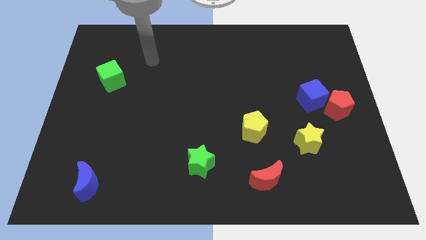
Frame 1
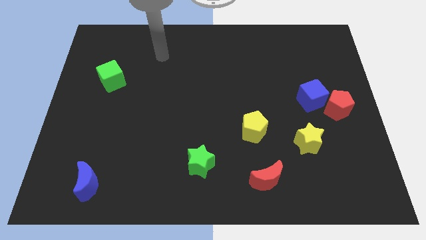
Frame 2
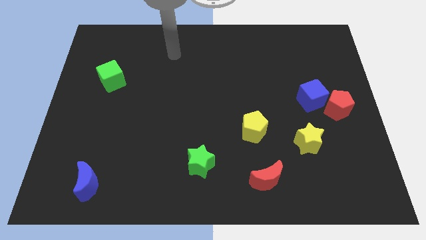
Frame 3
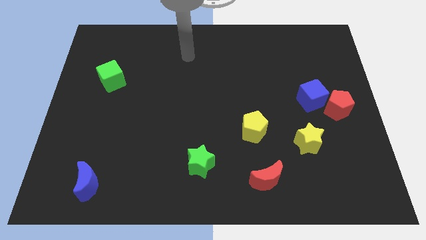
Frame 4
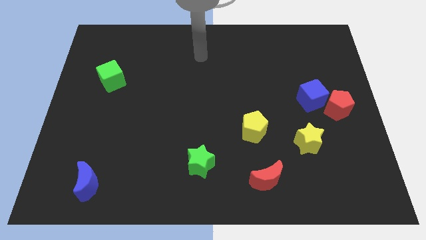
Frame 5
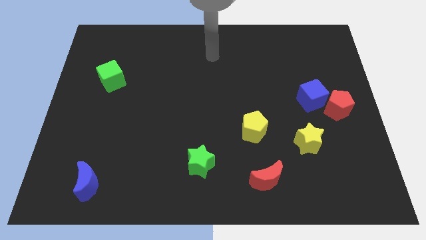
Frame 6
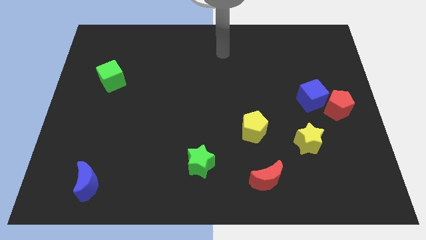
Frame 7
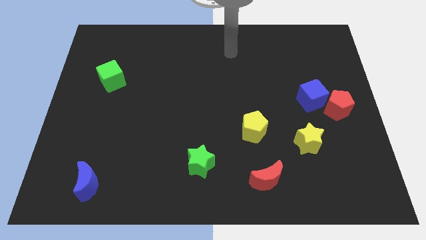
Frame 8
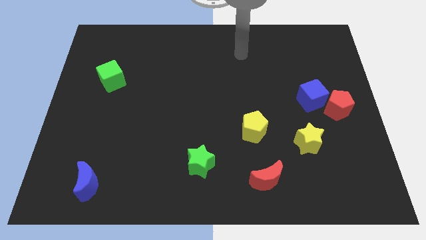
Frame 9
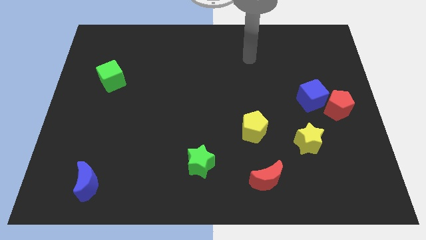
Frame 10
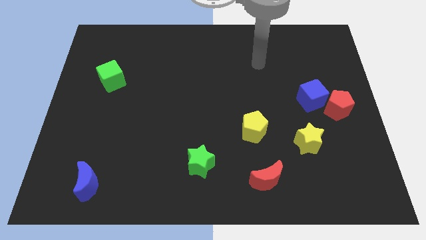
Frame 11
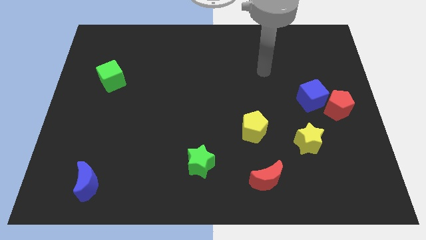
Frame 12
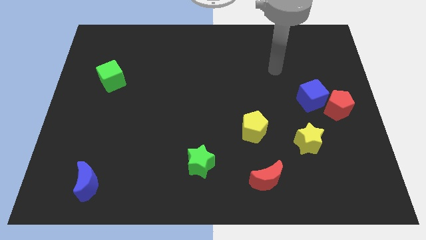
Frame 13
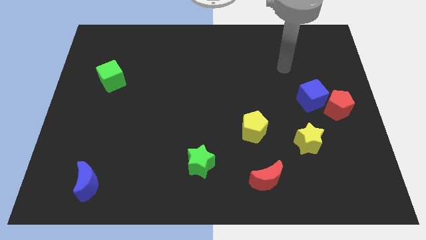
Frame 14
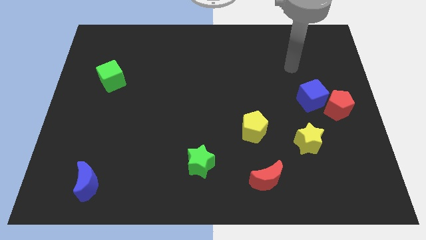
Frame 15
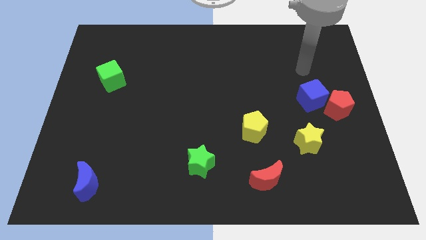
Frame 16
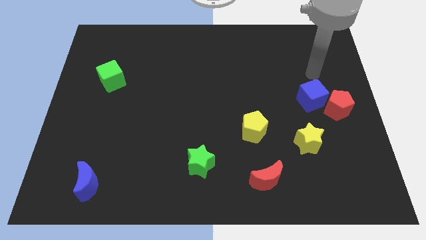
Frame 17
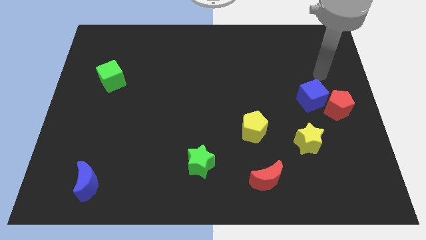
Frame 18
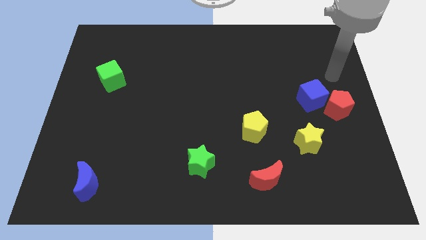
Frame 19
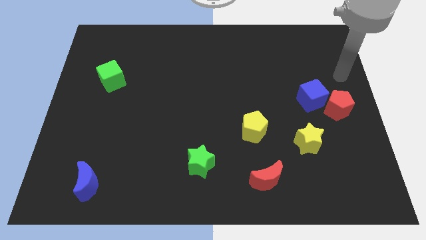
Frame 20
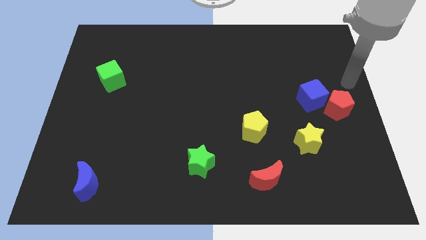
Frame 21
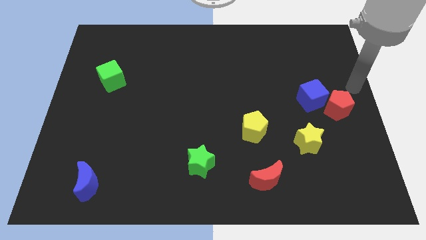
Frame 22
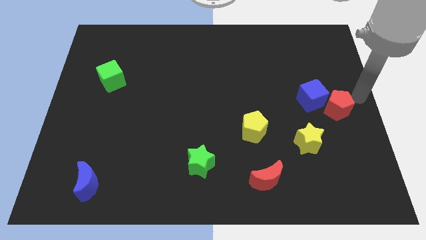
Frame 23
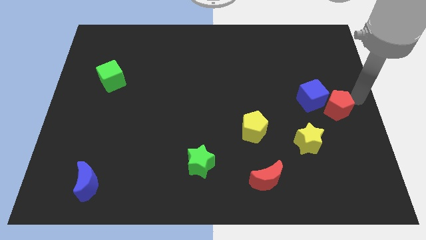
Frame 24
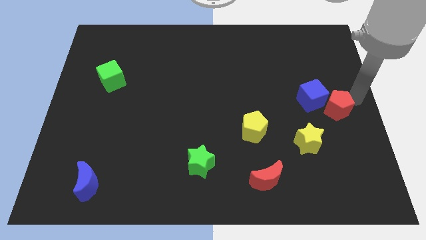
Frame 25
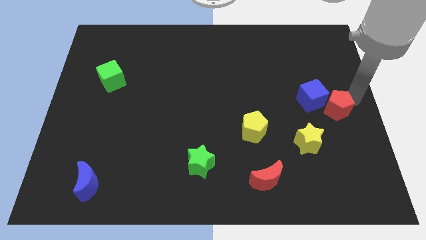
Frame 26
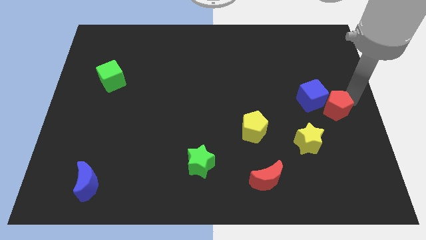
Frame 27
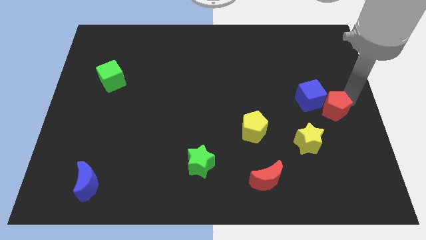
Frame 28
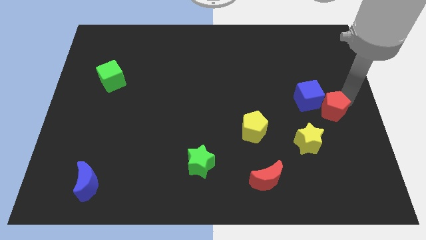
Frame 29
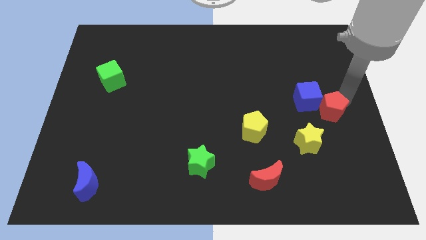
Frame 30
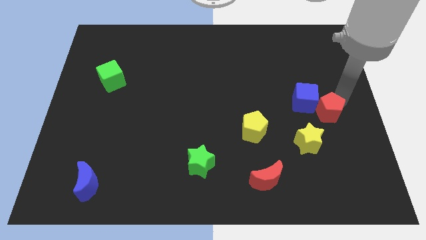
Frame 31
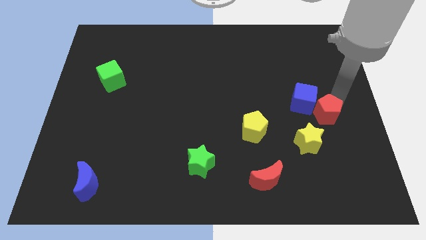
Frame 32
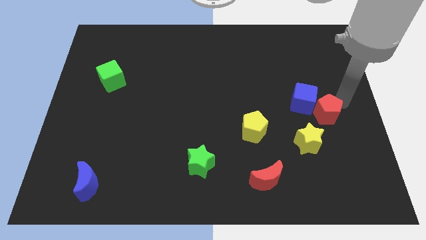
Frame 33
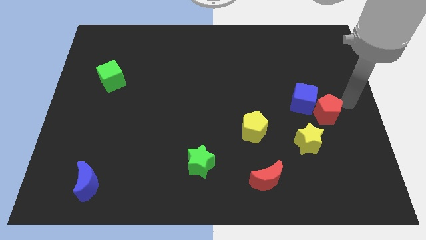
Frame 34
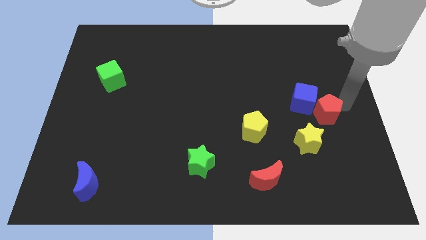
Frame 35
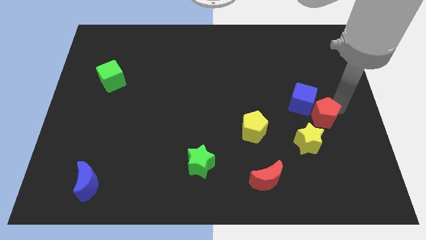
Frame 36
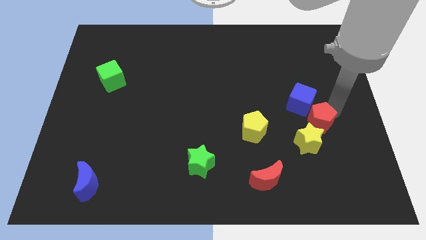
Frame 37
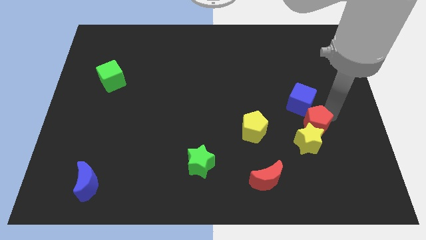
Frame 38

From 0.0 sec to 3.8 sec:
slightly push the red pentagon downwards and then left

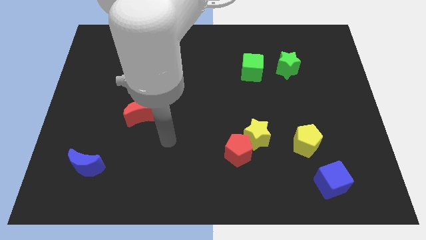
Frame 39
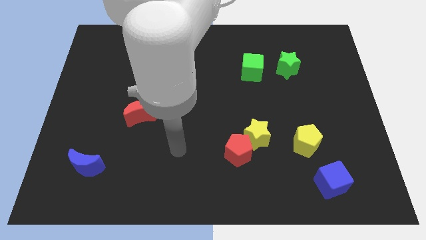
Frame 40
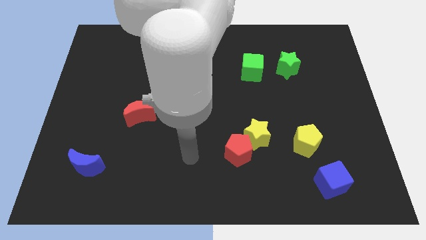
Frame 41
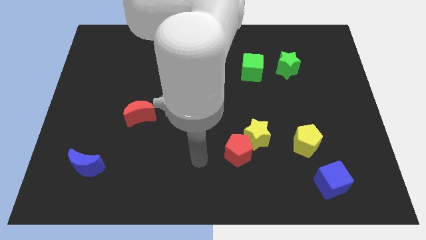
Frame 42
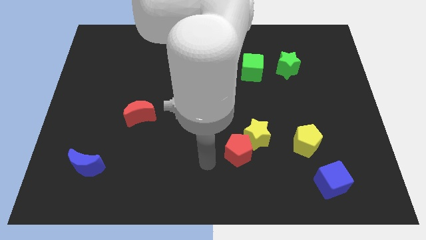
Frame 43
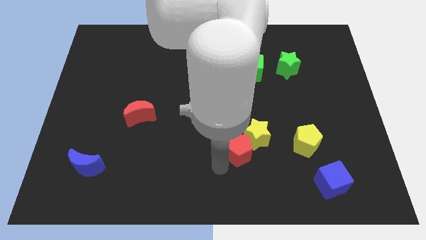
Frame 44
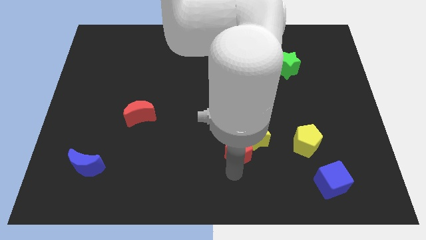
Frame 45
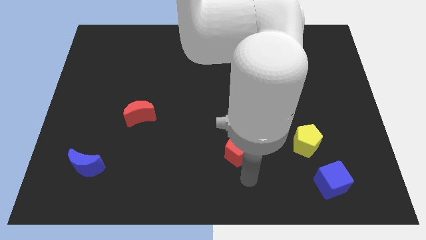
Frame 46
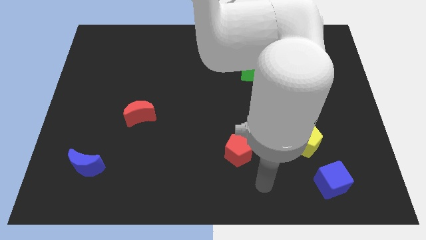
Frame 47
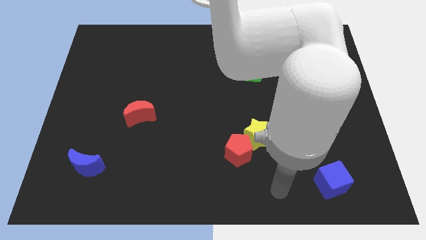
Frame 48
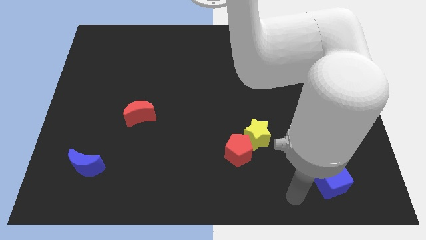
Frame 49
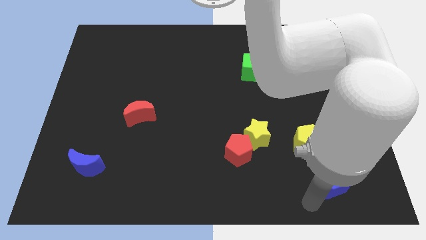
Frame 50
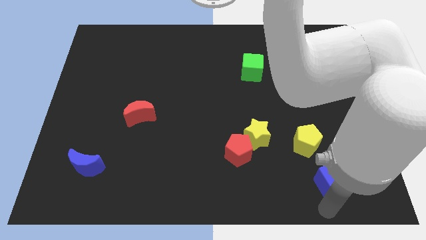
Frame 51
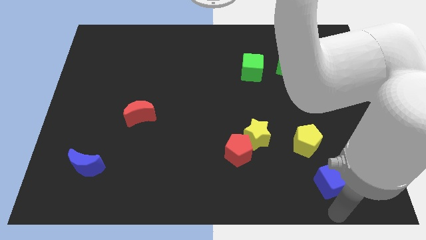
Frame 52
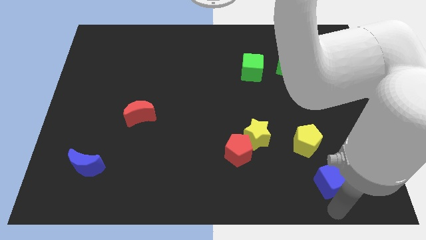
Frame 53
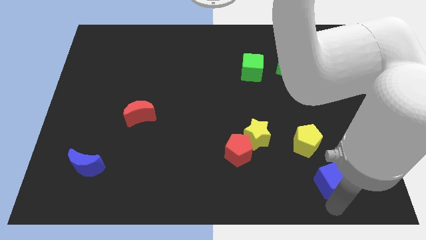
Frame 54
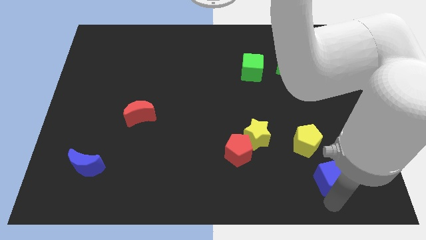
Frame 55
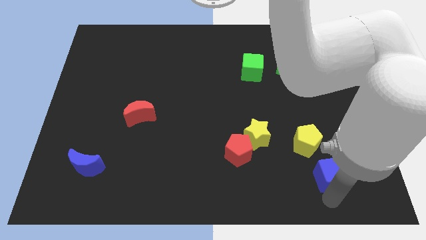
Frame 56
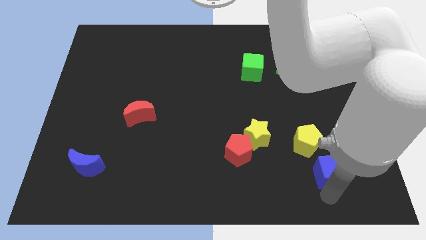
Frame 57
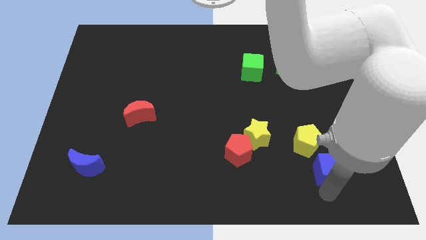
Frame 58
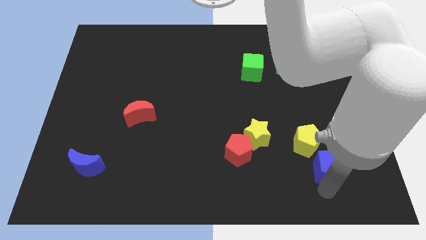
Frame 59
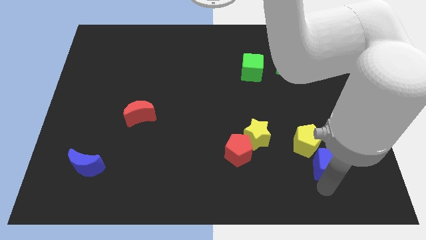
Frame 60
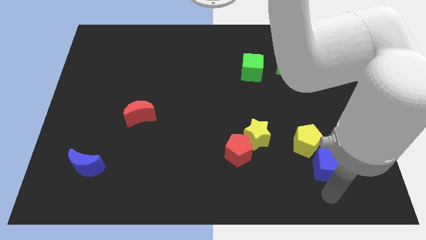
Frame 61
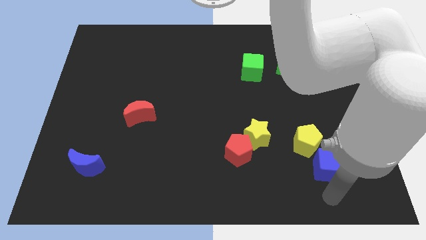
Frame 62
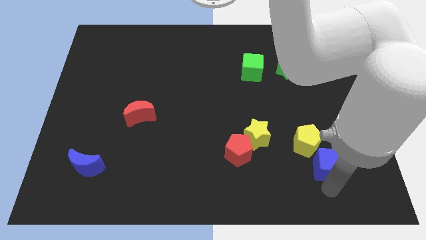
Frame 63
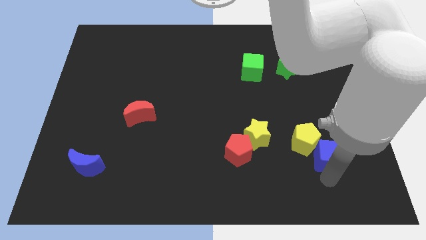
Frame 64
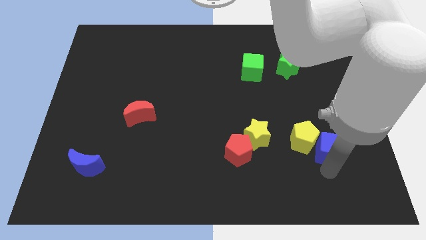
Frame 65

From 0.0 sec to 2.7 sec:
slide the blue cube slightly upwards

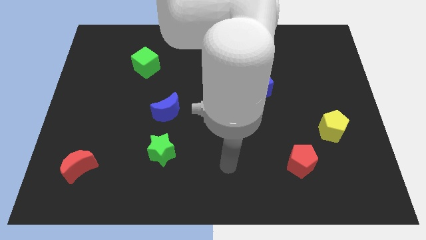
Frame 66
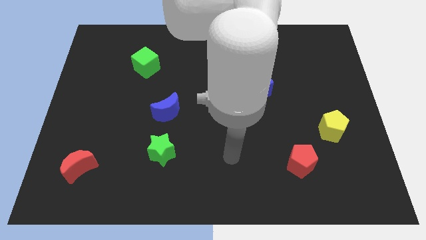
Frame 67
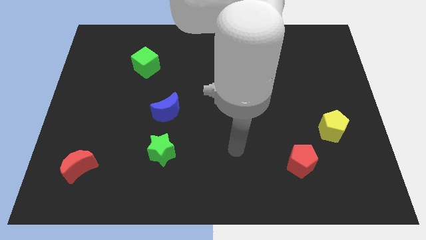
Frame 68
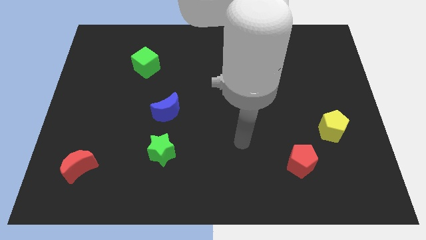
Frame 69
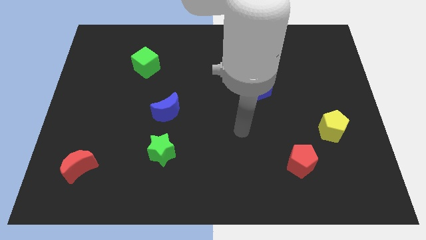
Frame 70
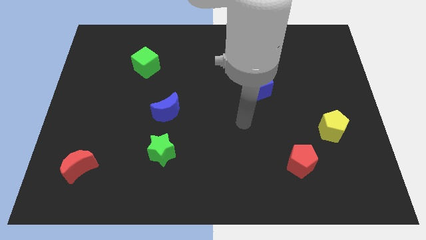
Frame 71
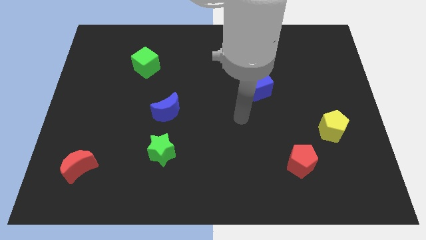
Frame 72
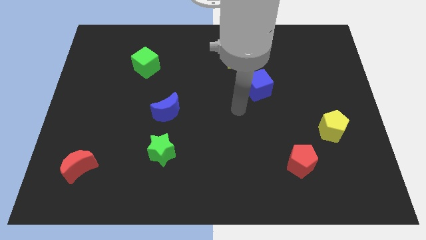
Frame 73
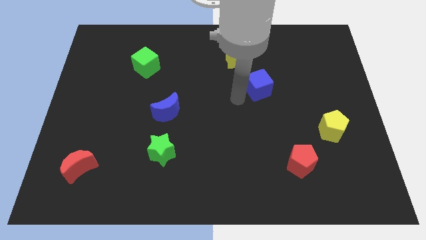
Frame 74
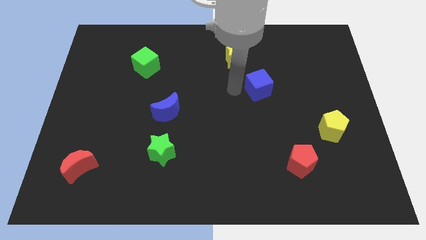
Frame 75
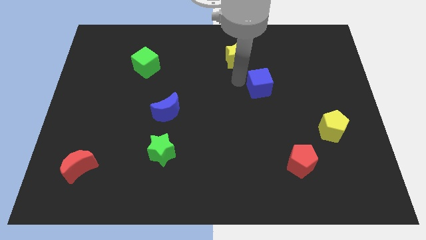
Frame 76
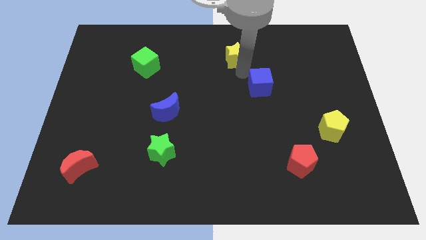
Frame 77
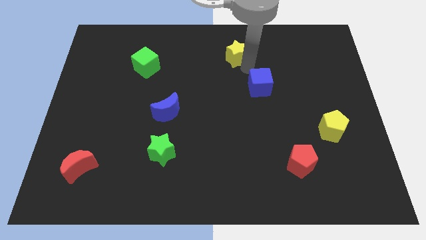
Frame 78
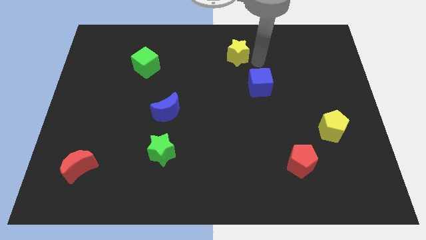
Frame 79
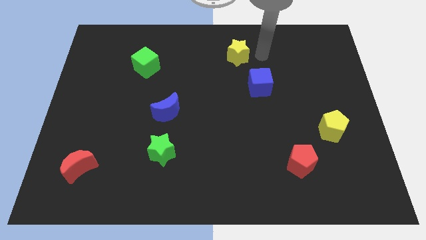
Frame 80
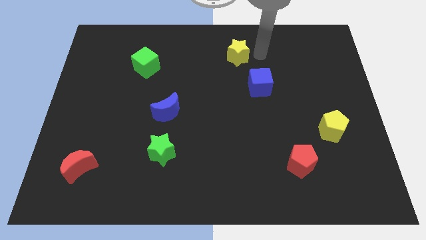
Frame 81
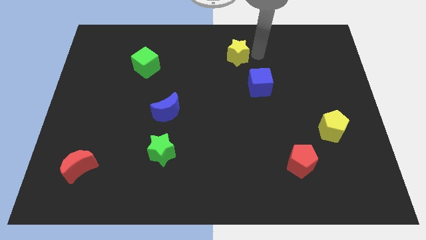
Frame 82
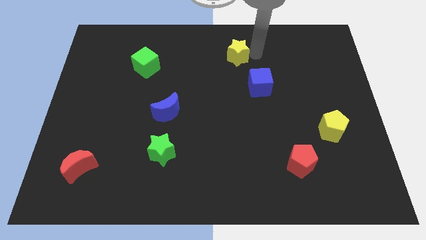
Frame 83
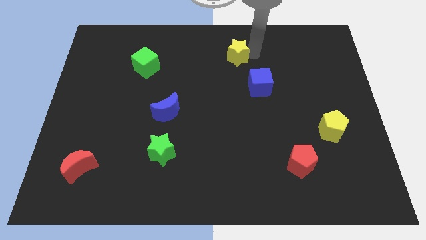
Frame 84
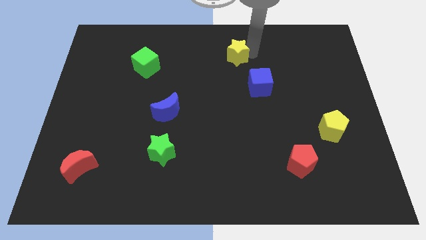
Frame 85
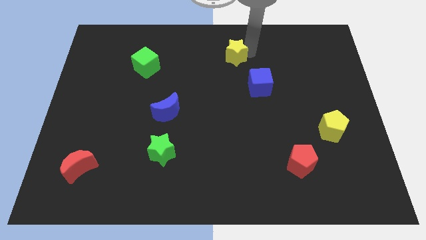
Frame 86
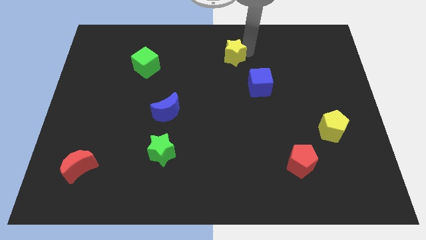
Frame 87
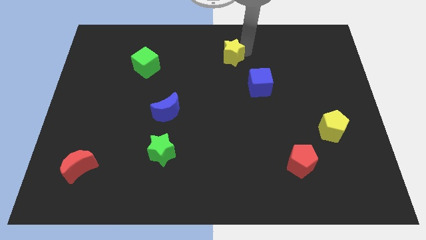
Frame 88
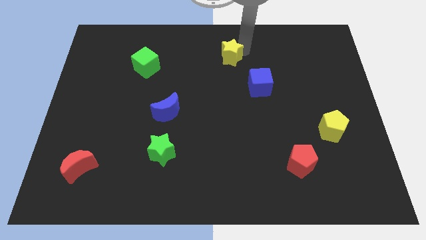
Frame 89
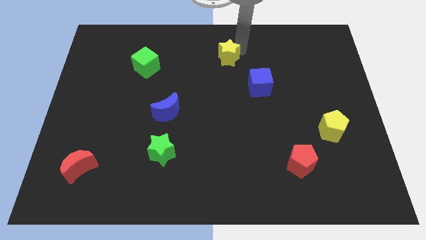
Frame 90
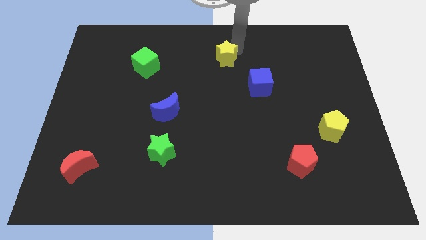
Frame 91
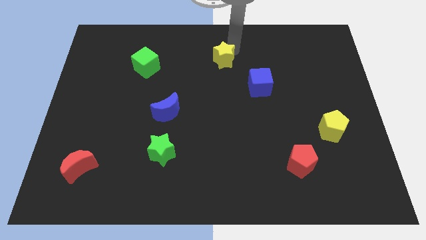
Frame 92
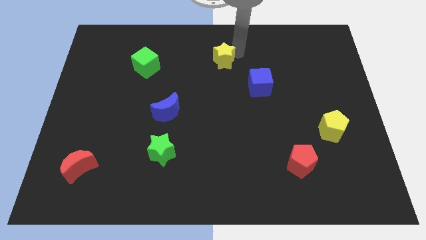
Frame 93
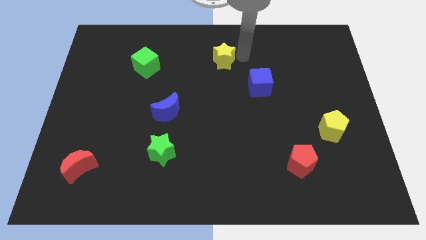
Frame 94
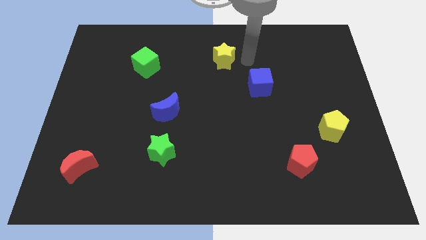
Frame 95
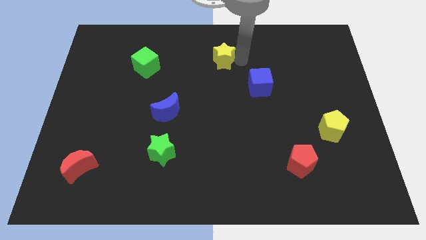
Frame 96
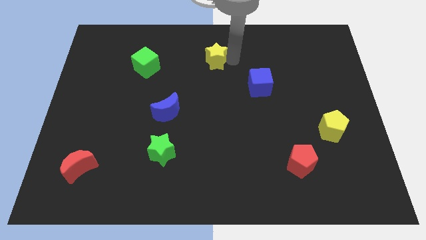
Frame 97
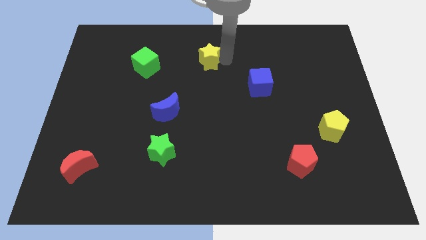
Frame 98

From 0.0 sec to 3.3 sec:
slightly slide the yellow star left
